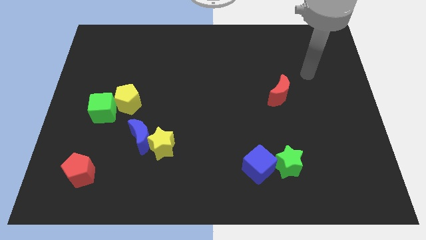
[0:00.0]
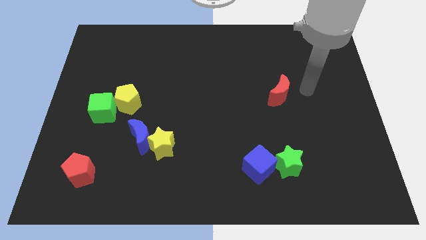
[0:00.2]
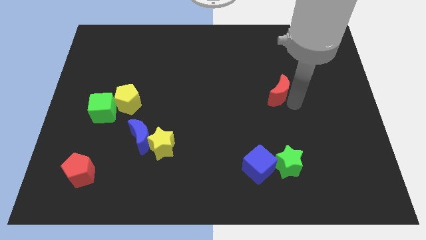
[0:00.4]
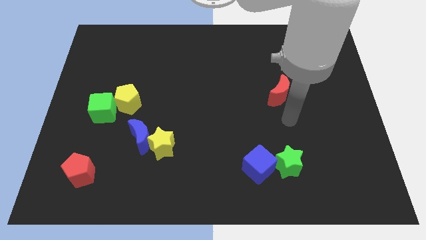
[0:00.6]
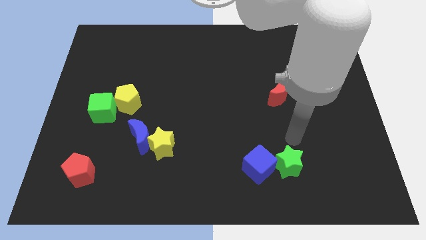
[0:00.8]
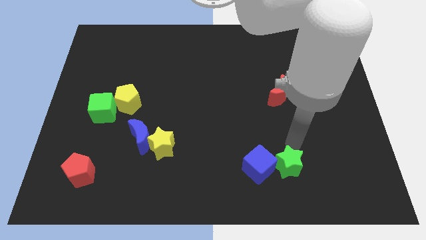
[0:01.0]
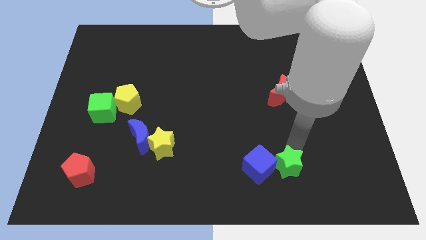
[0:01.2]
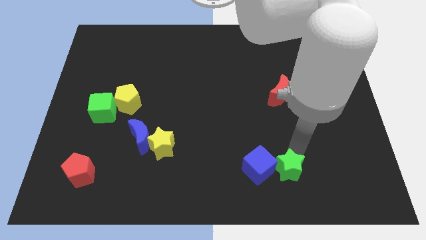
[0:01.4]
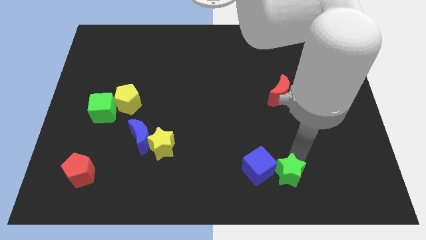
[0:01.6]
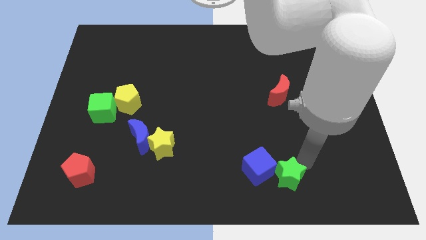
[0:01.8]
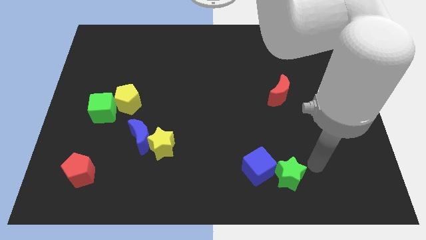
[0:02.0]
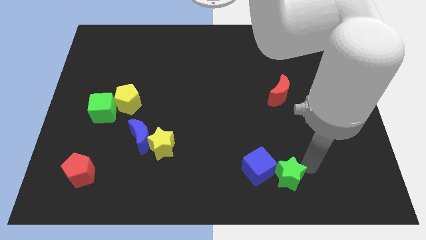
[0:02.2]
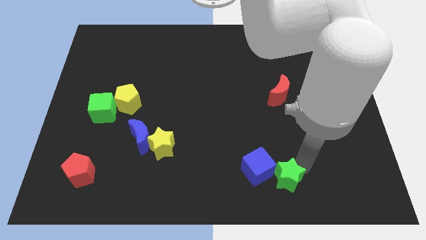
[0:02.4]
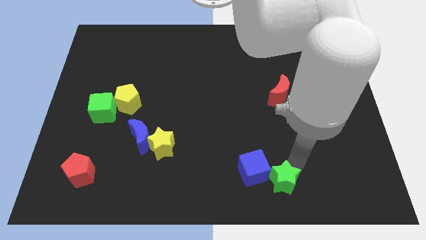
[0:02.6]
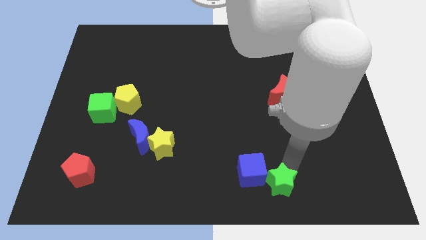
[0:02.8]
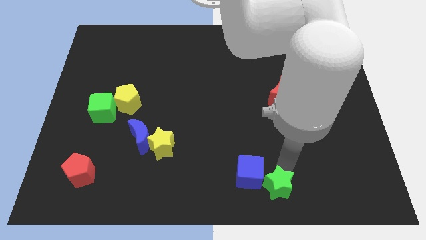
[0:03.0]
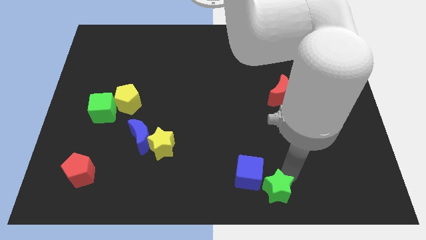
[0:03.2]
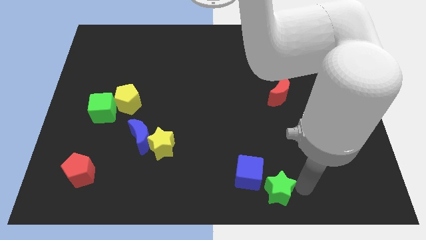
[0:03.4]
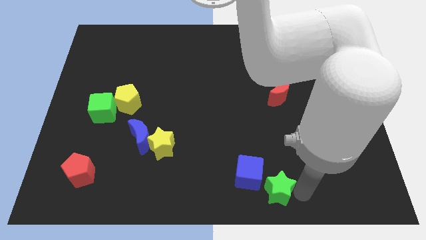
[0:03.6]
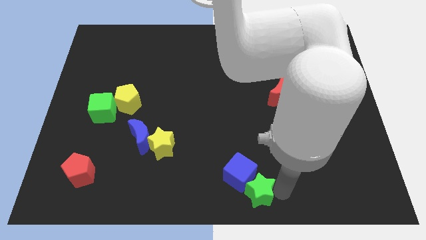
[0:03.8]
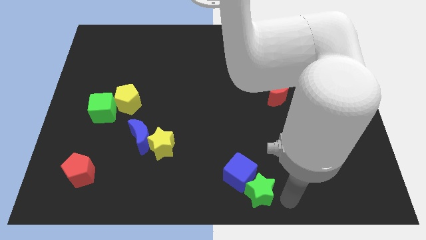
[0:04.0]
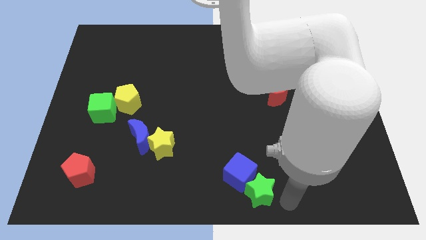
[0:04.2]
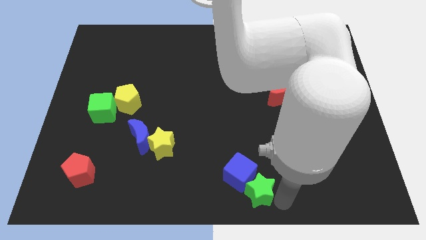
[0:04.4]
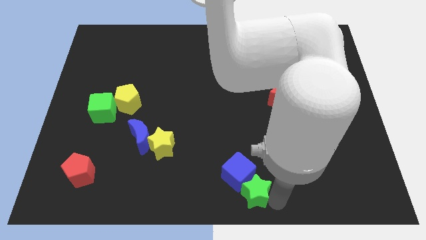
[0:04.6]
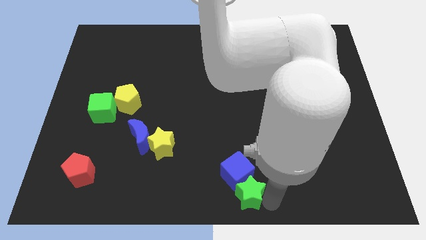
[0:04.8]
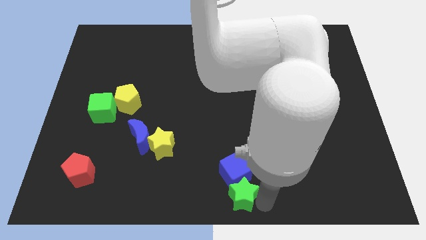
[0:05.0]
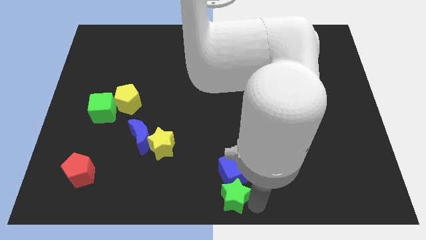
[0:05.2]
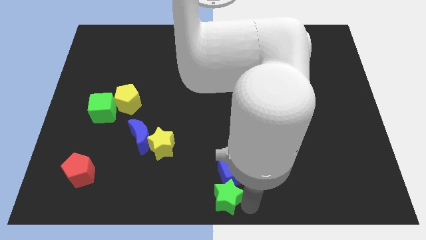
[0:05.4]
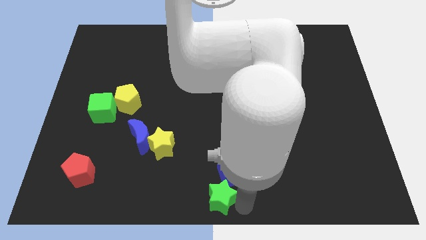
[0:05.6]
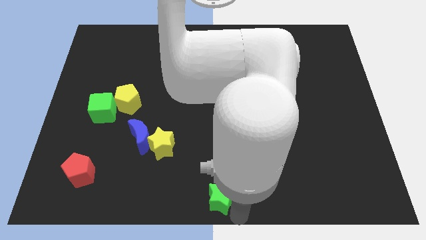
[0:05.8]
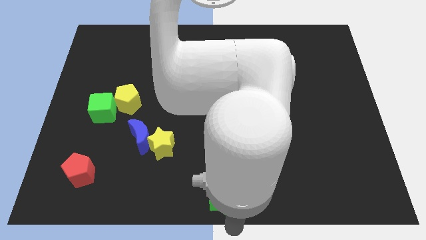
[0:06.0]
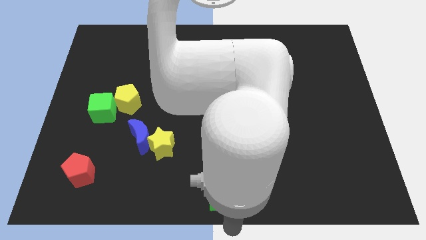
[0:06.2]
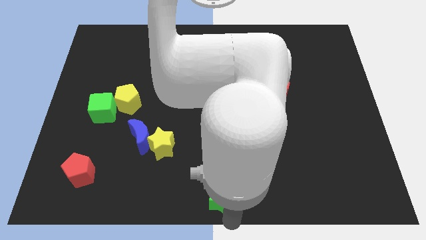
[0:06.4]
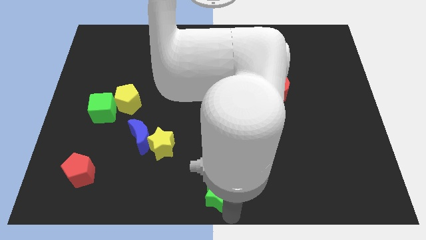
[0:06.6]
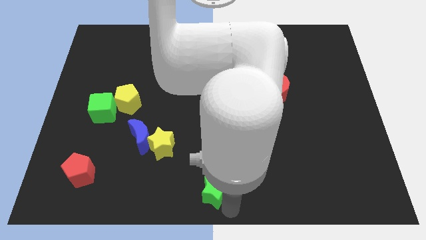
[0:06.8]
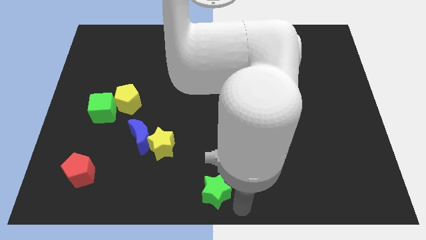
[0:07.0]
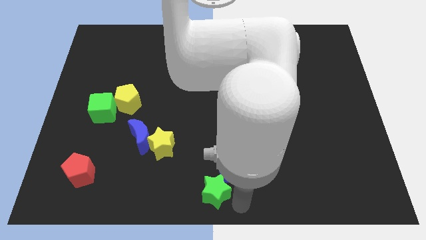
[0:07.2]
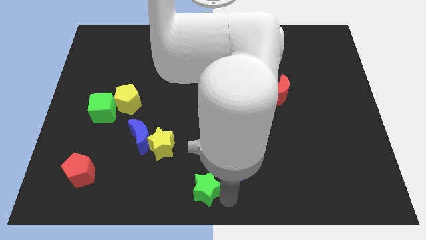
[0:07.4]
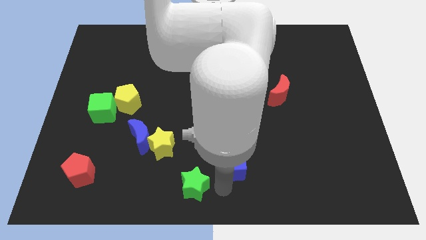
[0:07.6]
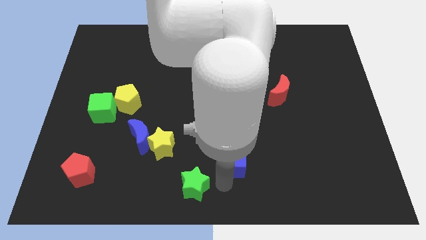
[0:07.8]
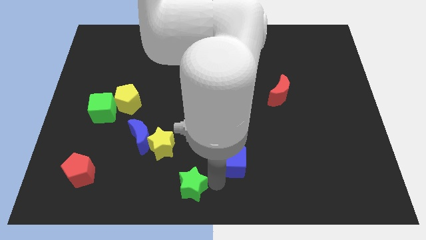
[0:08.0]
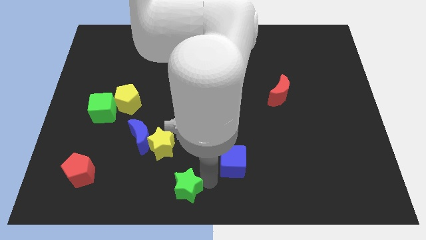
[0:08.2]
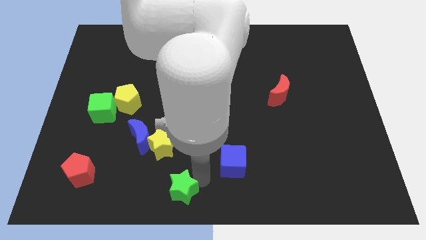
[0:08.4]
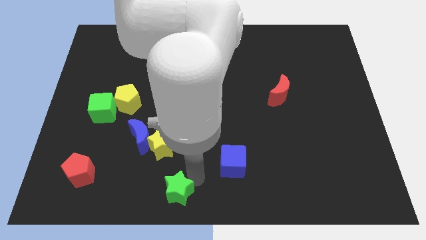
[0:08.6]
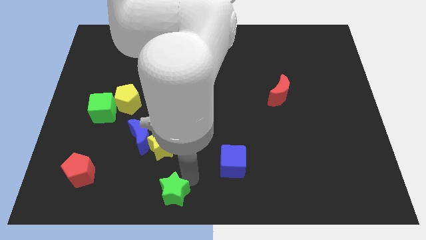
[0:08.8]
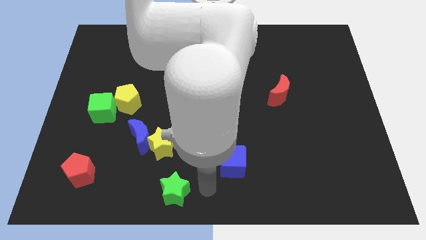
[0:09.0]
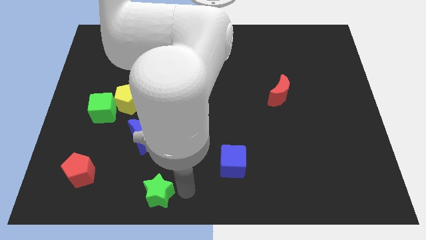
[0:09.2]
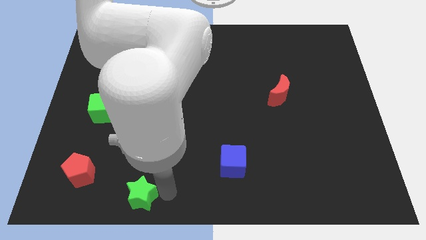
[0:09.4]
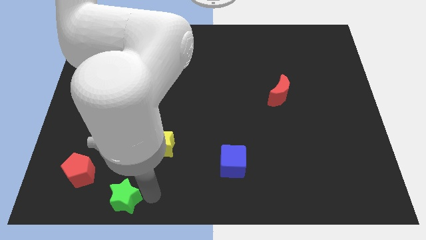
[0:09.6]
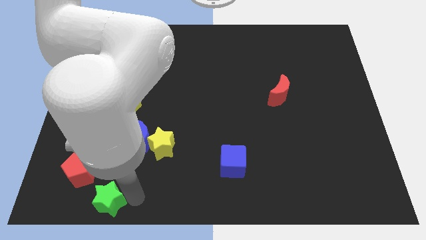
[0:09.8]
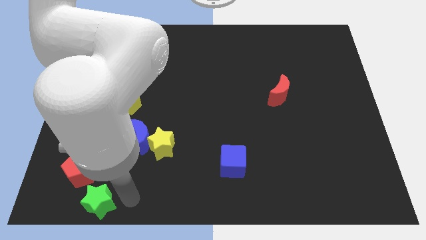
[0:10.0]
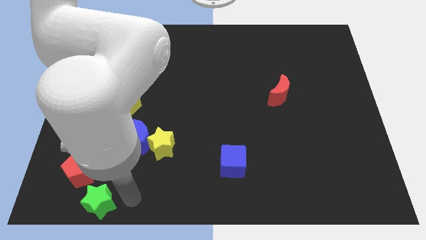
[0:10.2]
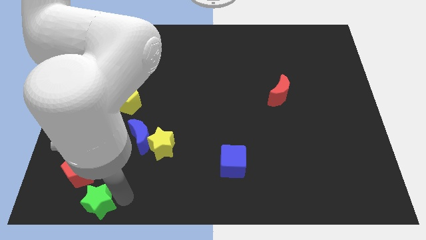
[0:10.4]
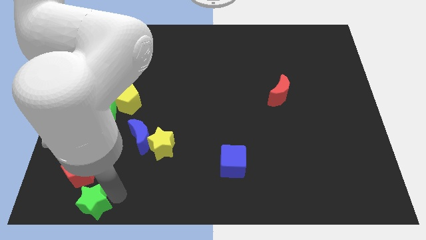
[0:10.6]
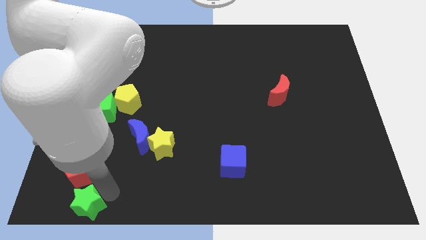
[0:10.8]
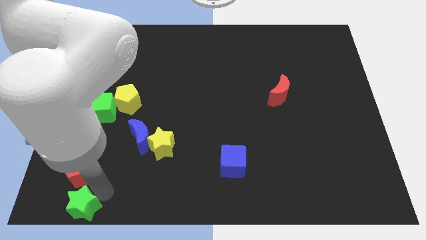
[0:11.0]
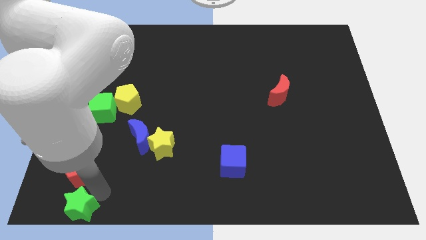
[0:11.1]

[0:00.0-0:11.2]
move the green star to the bottom left corner
